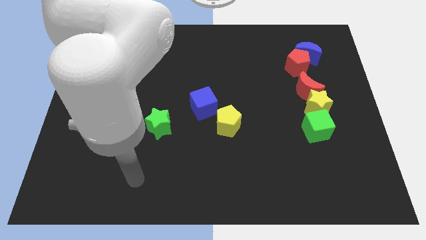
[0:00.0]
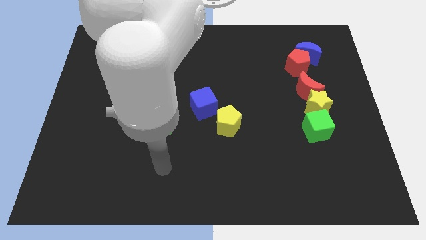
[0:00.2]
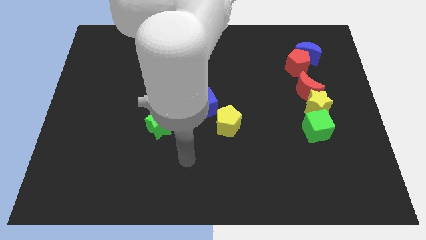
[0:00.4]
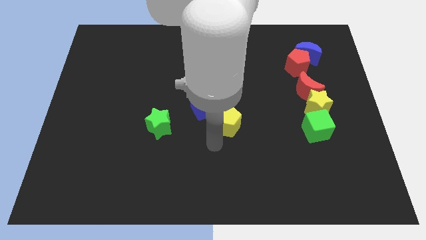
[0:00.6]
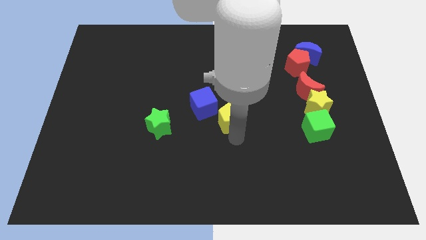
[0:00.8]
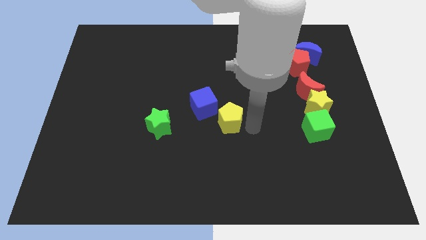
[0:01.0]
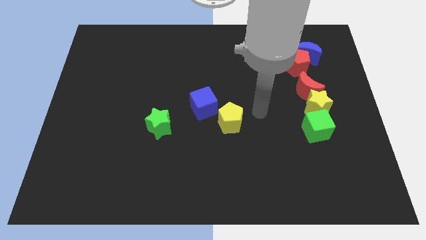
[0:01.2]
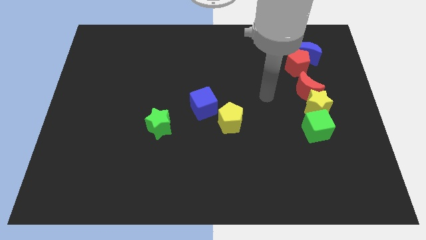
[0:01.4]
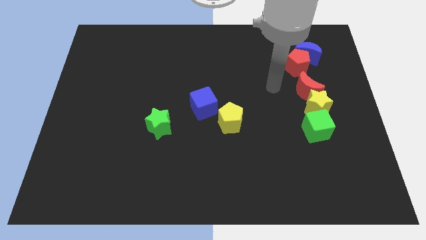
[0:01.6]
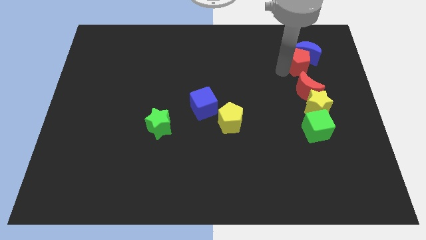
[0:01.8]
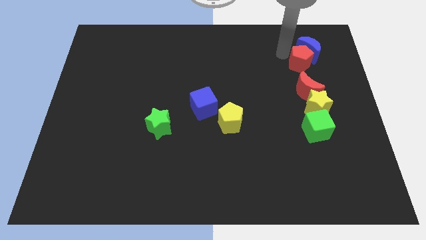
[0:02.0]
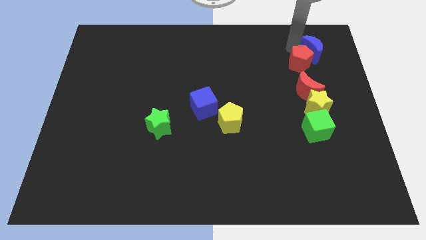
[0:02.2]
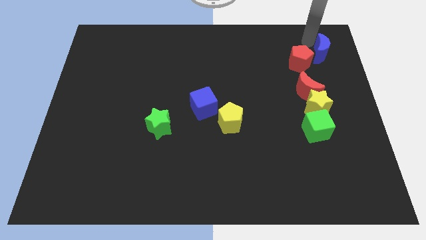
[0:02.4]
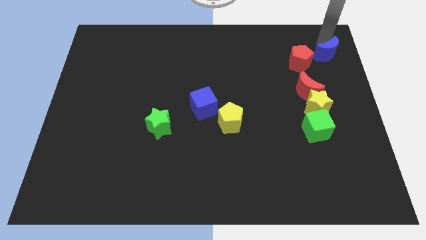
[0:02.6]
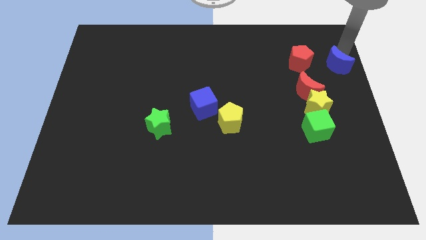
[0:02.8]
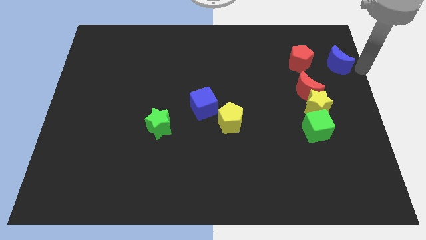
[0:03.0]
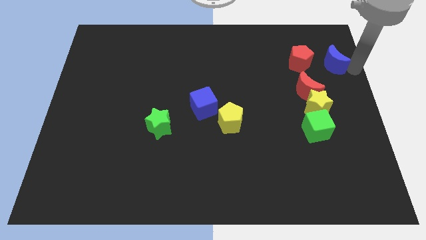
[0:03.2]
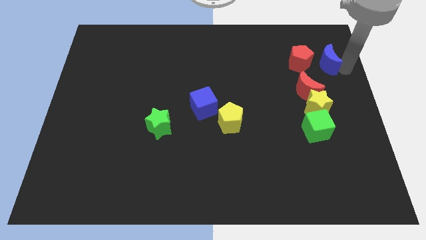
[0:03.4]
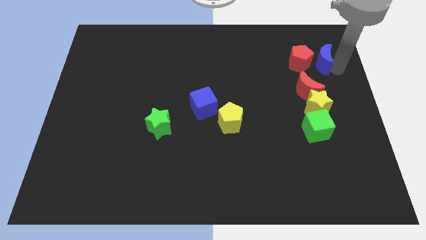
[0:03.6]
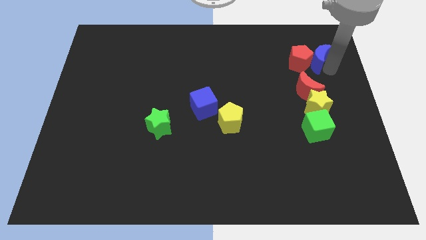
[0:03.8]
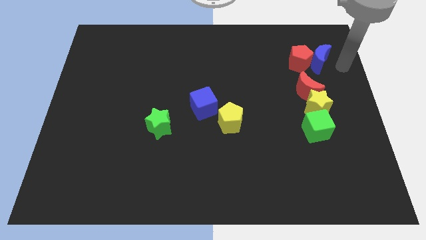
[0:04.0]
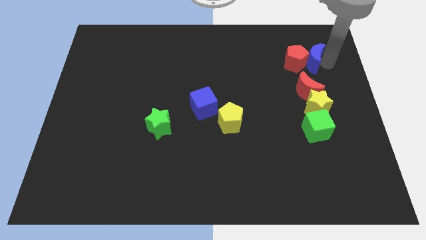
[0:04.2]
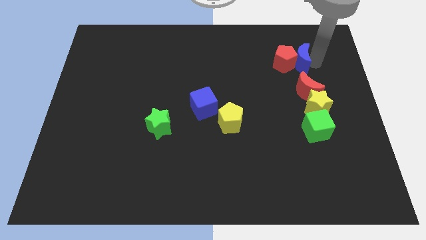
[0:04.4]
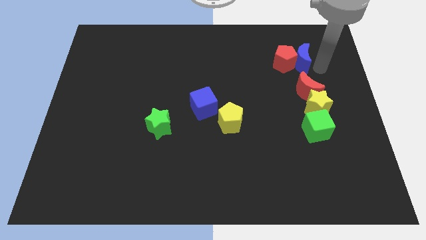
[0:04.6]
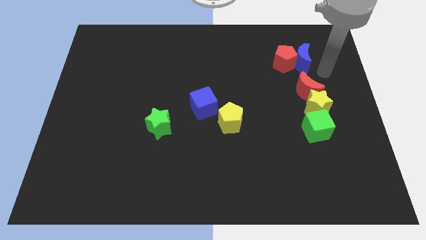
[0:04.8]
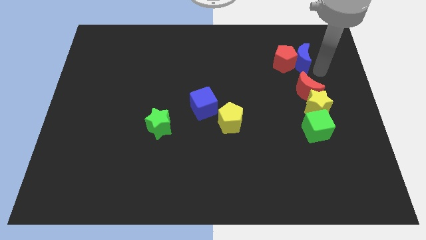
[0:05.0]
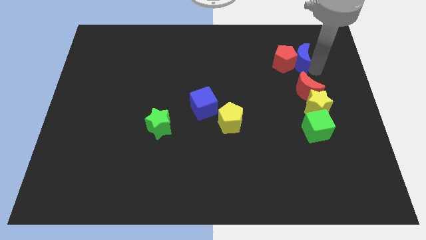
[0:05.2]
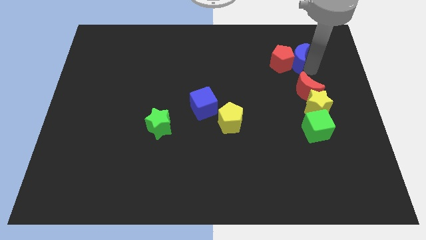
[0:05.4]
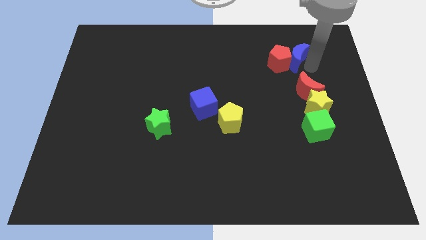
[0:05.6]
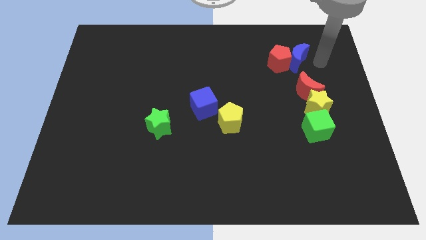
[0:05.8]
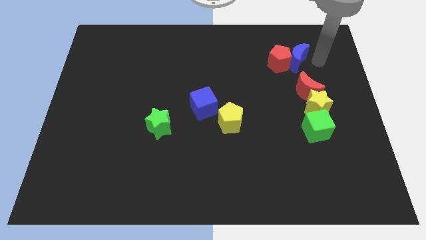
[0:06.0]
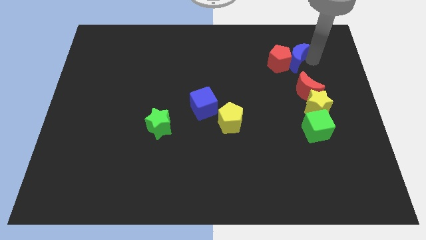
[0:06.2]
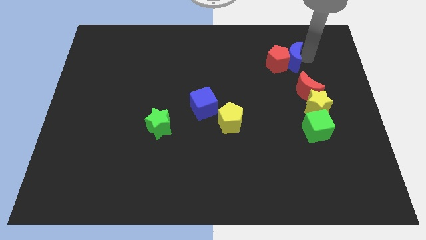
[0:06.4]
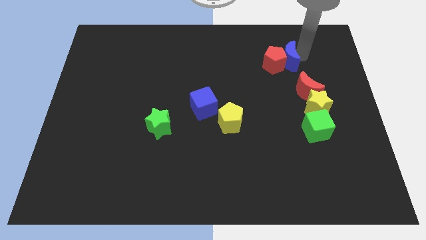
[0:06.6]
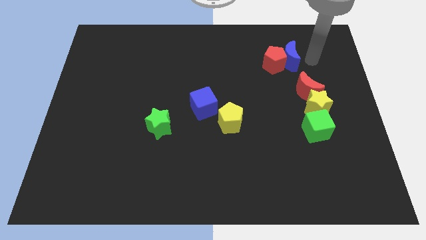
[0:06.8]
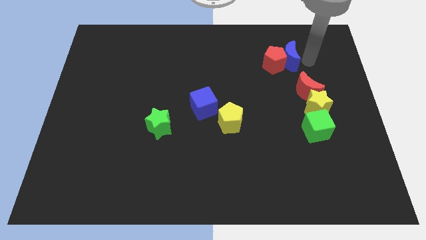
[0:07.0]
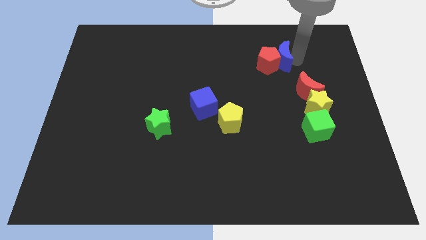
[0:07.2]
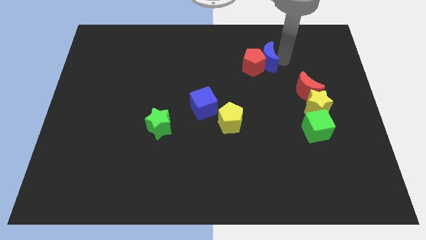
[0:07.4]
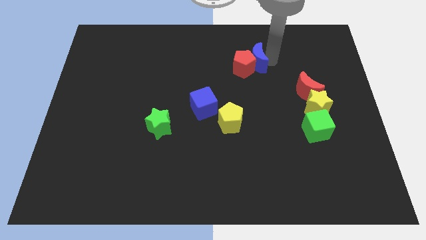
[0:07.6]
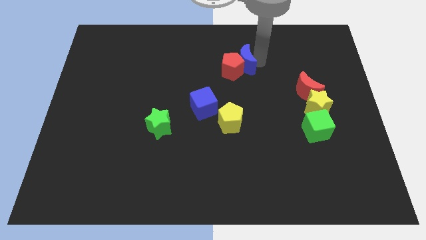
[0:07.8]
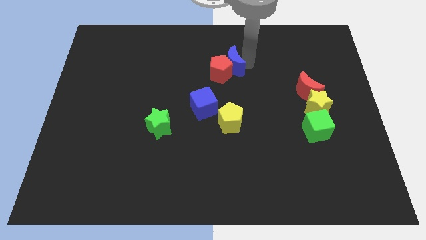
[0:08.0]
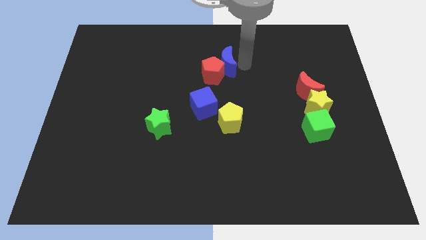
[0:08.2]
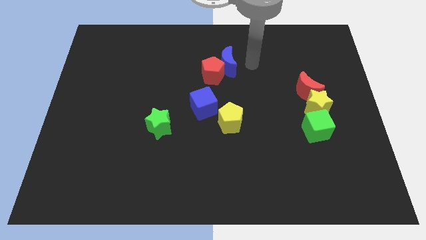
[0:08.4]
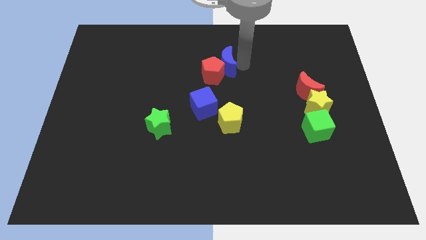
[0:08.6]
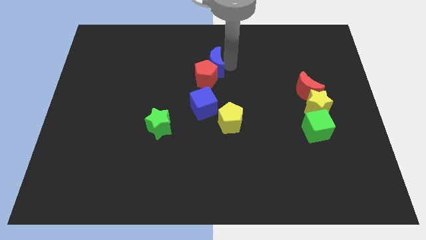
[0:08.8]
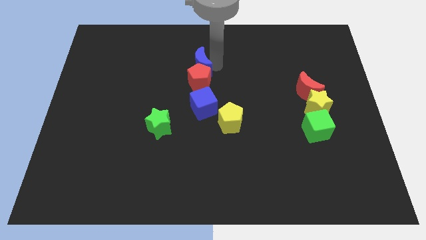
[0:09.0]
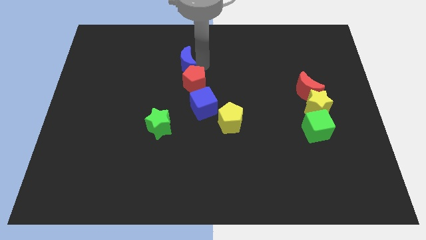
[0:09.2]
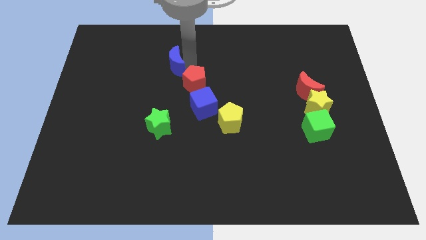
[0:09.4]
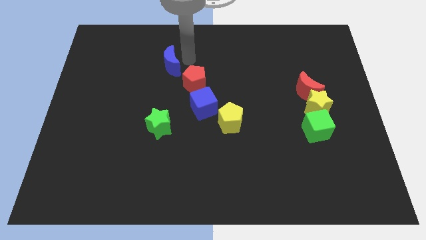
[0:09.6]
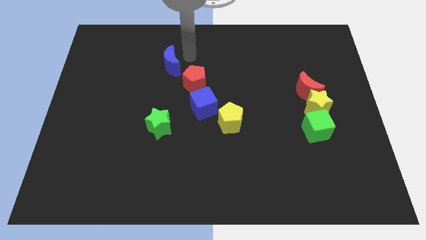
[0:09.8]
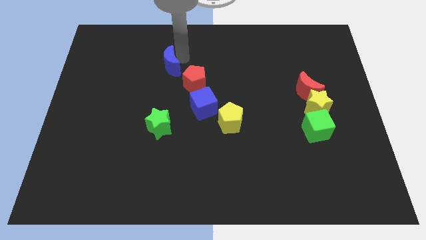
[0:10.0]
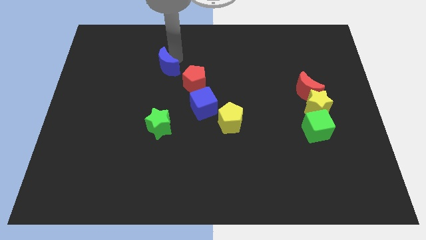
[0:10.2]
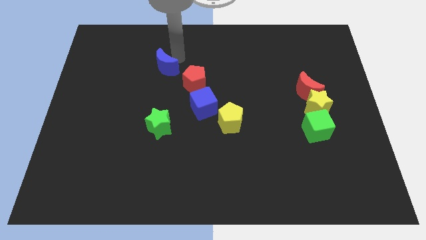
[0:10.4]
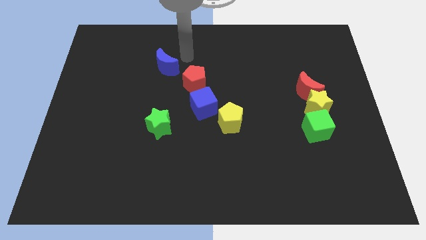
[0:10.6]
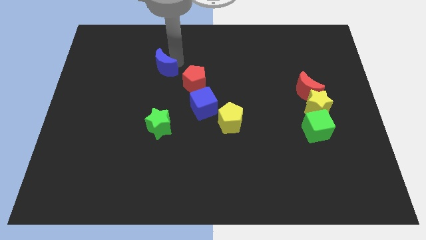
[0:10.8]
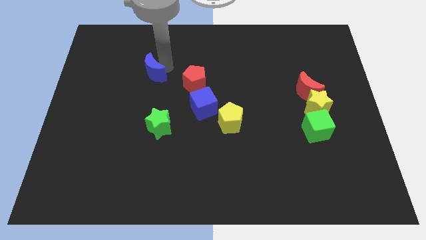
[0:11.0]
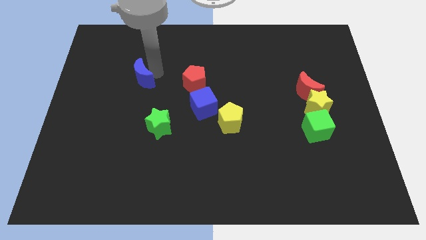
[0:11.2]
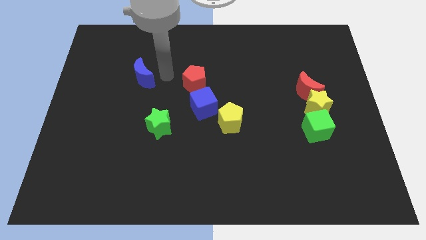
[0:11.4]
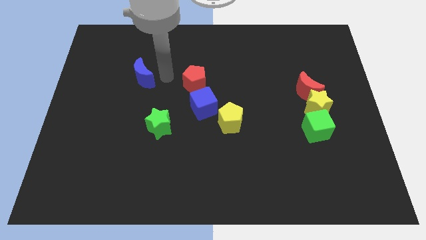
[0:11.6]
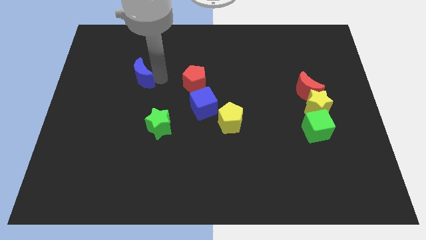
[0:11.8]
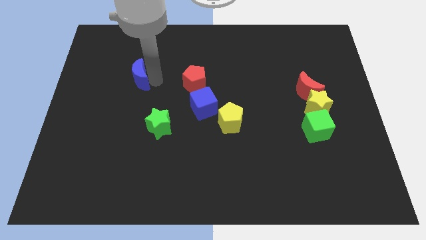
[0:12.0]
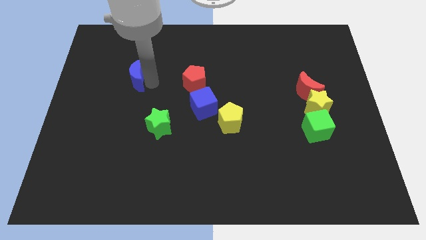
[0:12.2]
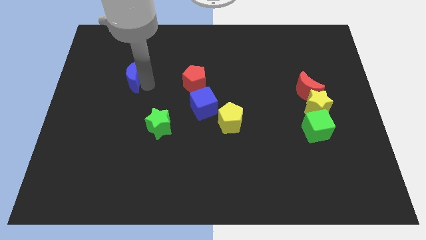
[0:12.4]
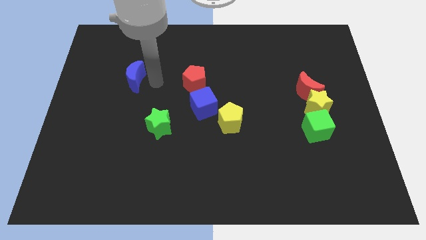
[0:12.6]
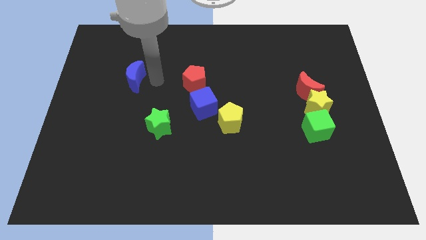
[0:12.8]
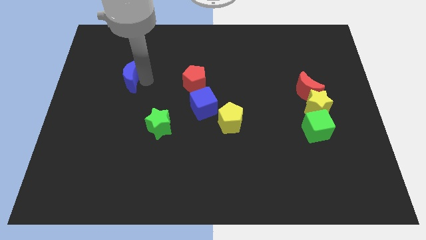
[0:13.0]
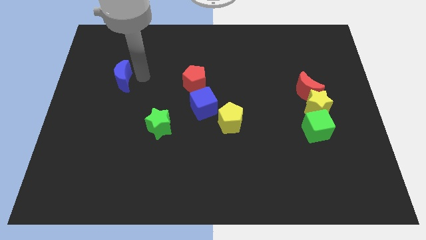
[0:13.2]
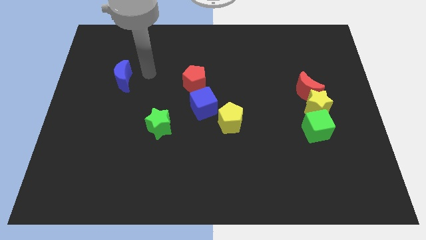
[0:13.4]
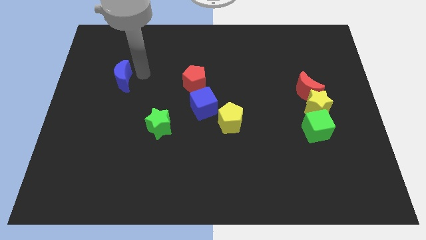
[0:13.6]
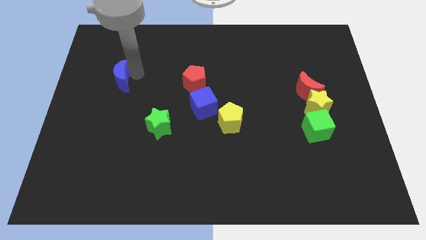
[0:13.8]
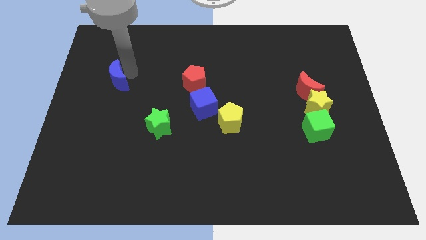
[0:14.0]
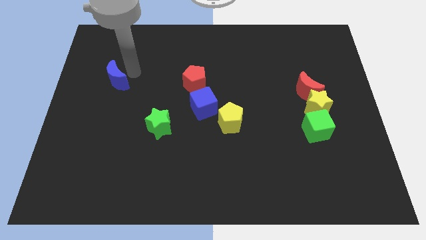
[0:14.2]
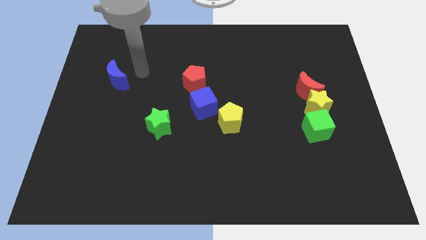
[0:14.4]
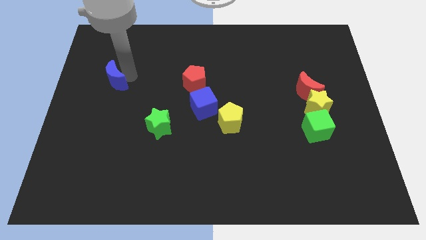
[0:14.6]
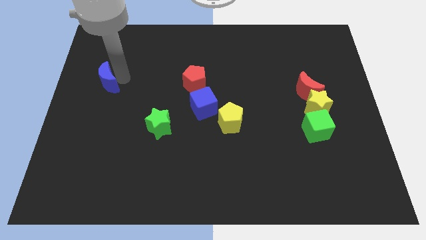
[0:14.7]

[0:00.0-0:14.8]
move the blue moon to the center left
